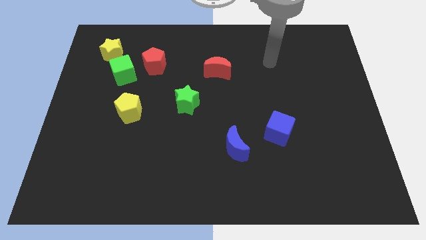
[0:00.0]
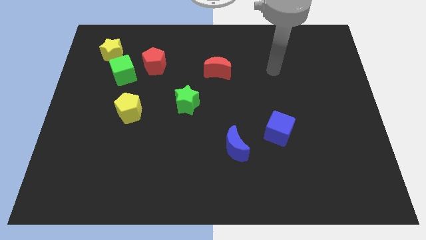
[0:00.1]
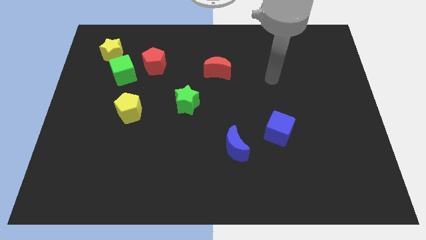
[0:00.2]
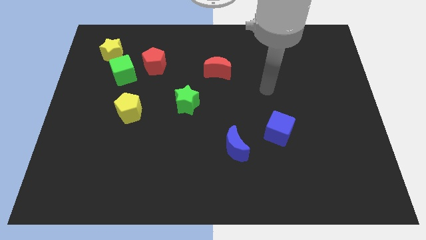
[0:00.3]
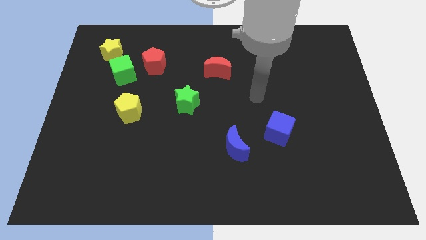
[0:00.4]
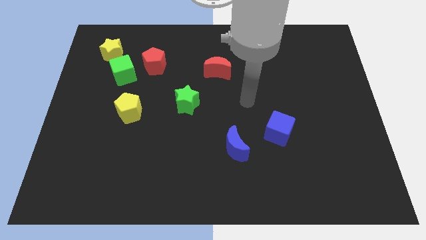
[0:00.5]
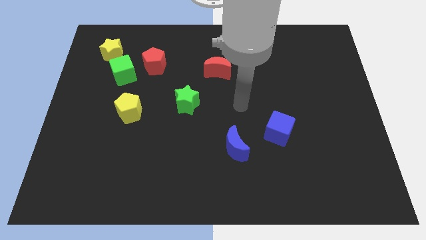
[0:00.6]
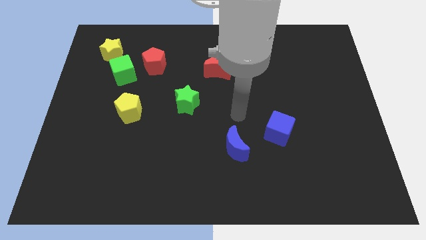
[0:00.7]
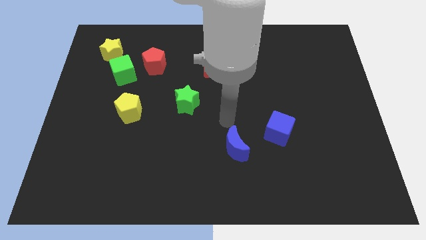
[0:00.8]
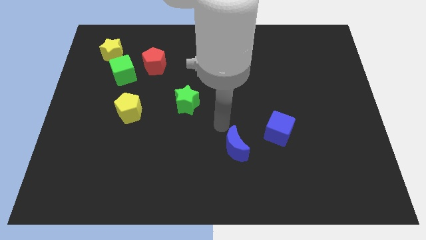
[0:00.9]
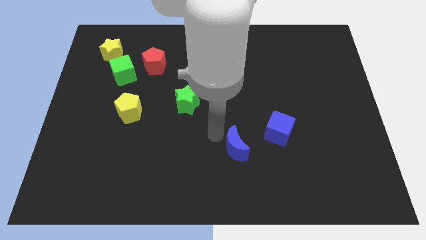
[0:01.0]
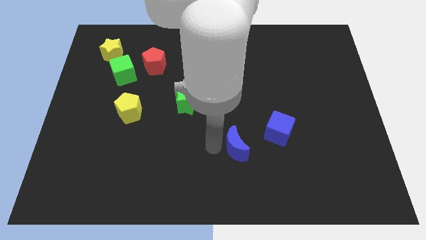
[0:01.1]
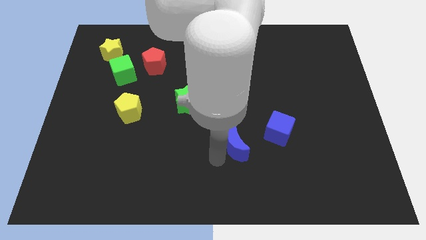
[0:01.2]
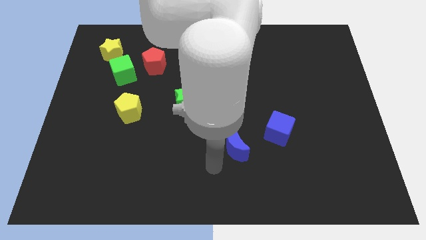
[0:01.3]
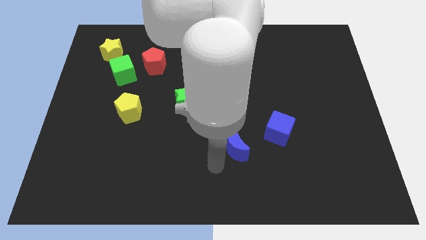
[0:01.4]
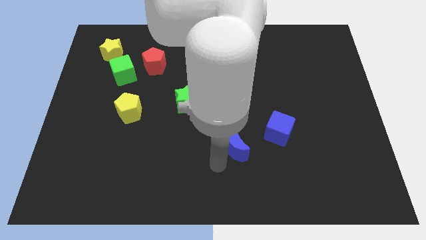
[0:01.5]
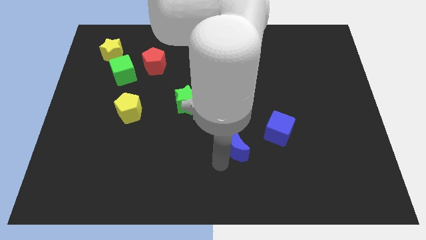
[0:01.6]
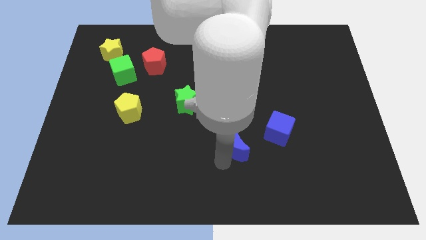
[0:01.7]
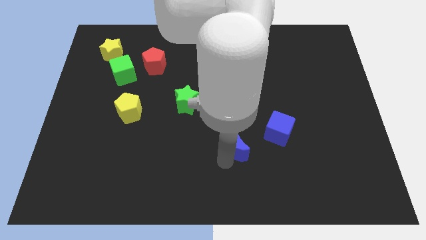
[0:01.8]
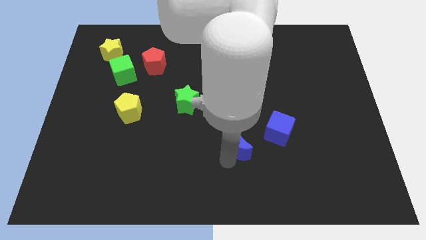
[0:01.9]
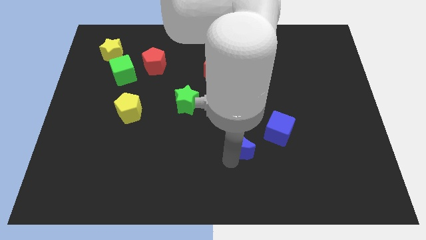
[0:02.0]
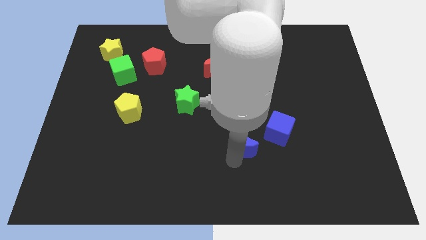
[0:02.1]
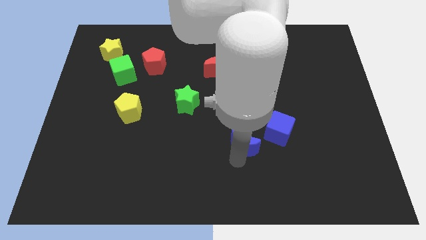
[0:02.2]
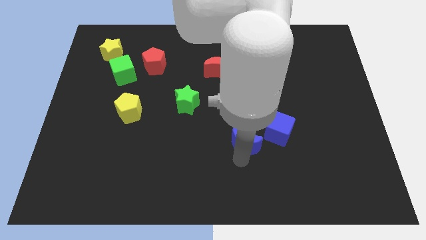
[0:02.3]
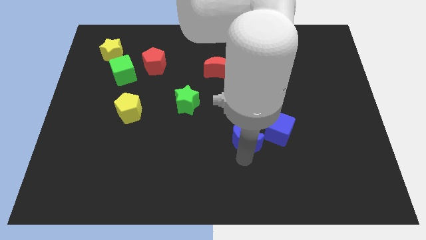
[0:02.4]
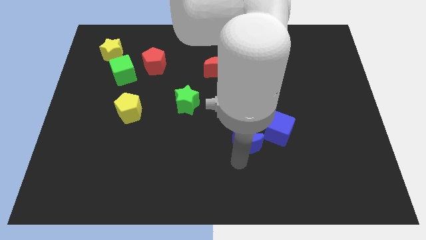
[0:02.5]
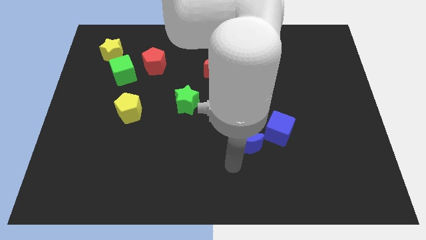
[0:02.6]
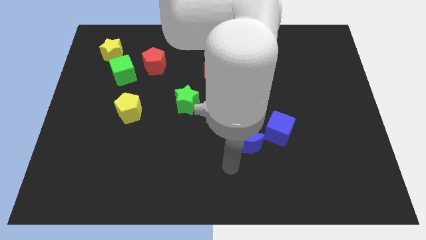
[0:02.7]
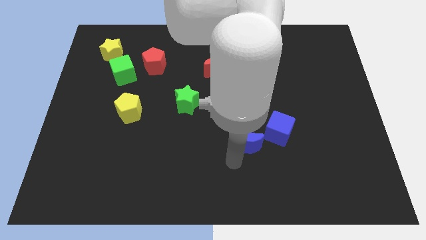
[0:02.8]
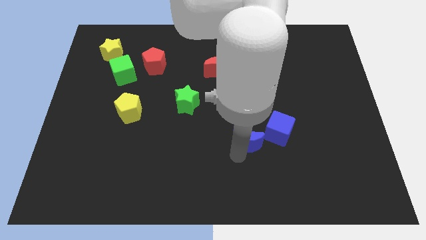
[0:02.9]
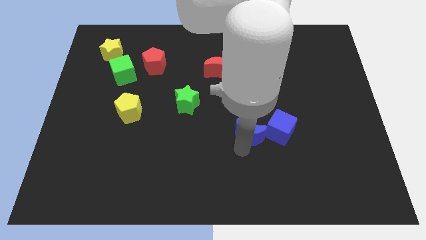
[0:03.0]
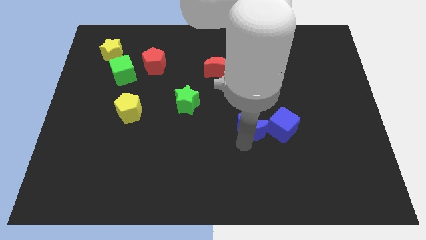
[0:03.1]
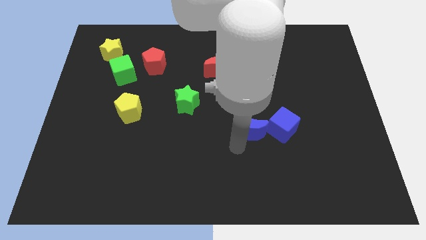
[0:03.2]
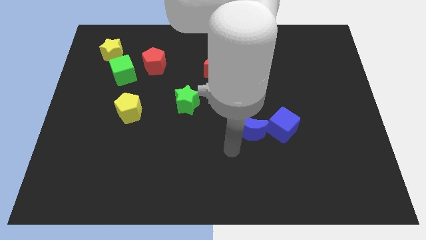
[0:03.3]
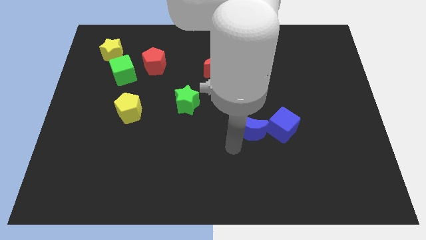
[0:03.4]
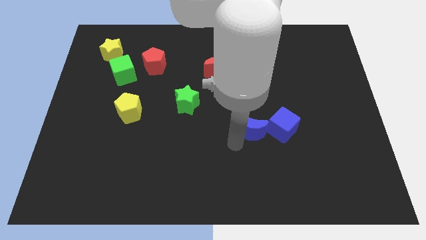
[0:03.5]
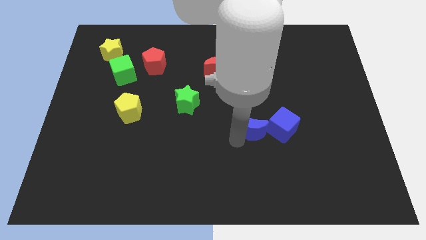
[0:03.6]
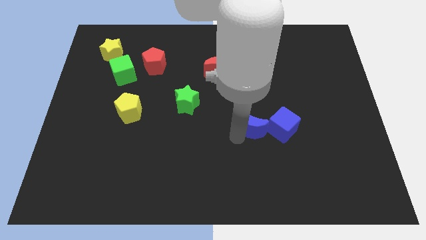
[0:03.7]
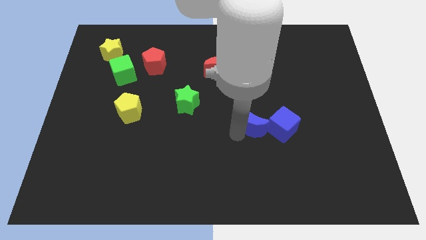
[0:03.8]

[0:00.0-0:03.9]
push the blue moon a bit up and to the right

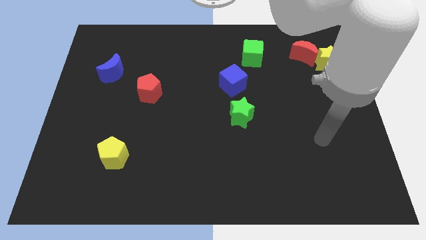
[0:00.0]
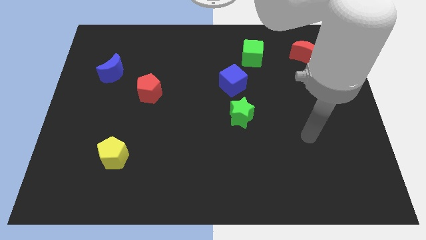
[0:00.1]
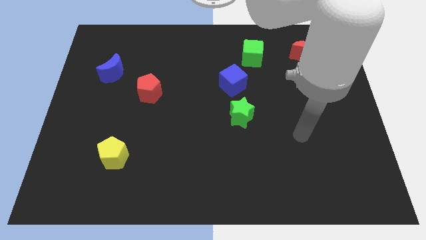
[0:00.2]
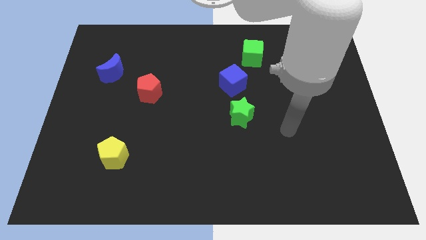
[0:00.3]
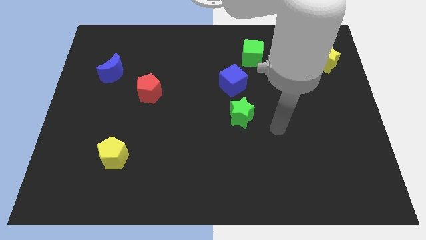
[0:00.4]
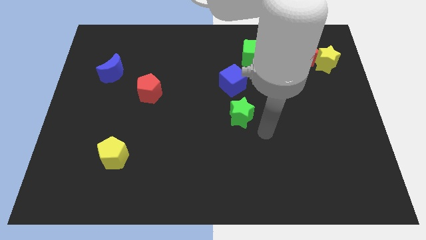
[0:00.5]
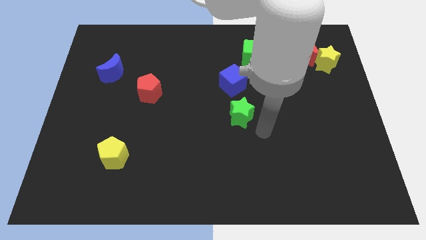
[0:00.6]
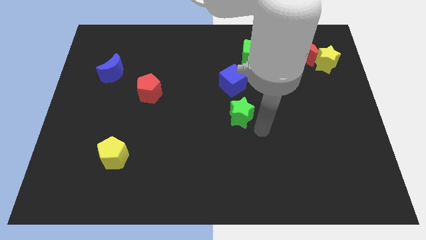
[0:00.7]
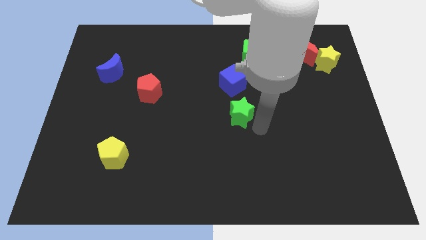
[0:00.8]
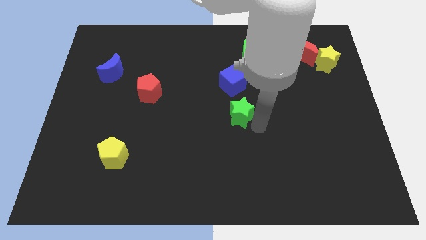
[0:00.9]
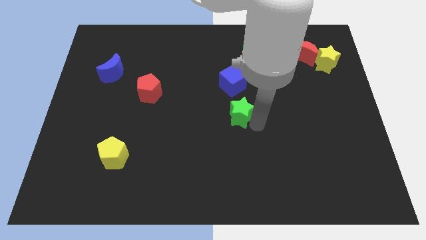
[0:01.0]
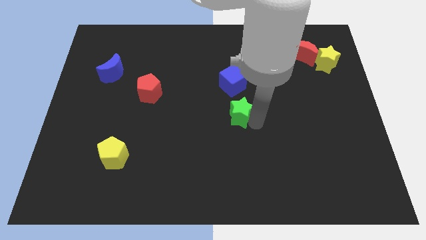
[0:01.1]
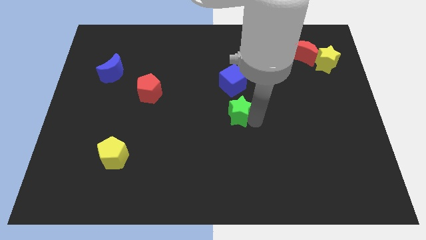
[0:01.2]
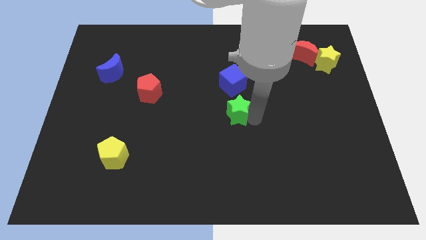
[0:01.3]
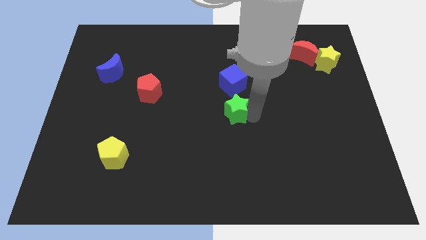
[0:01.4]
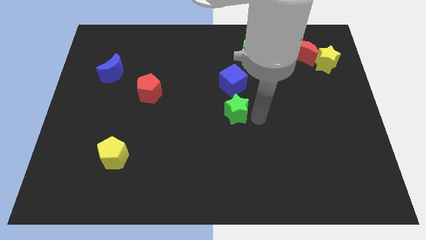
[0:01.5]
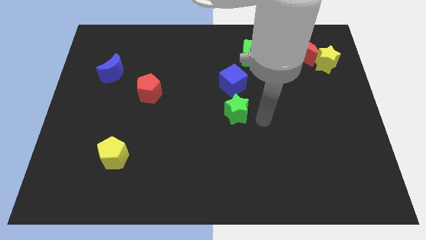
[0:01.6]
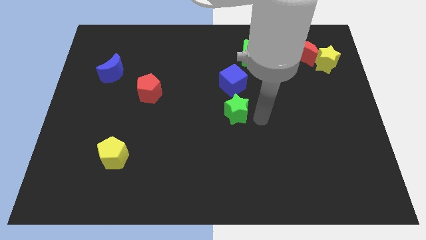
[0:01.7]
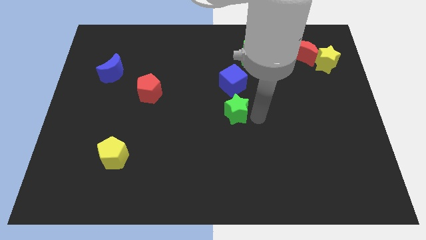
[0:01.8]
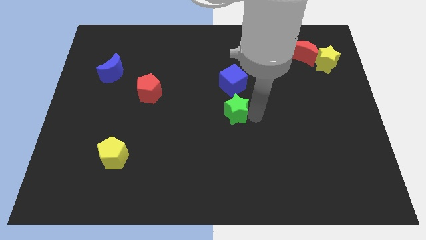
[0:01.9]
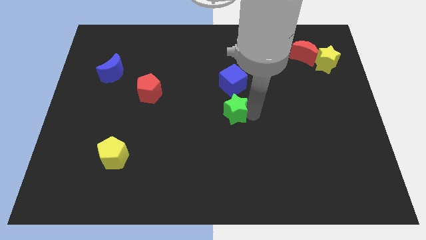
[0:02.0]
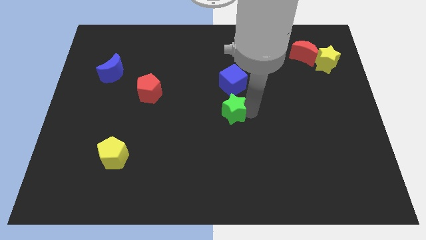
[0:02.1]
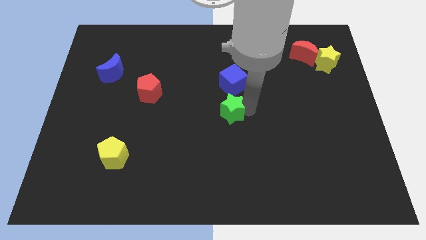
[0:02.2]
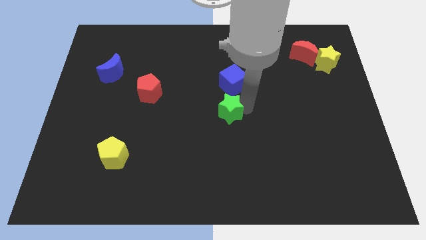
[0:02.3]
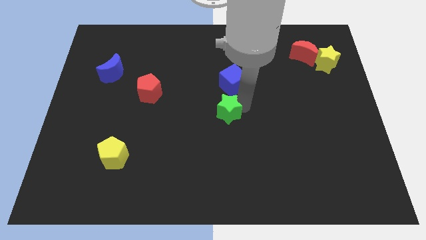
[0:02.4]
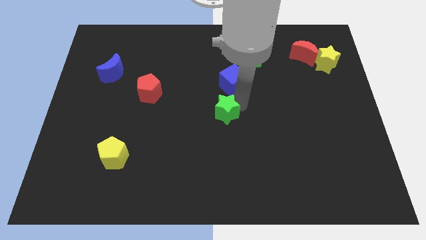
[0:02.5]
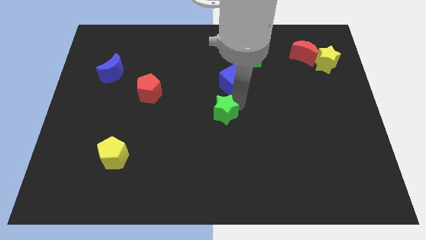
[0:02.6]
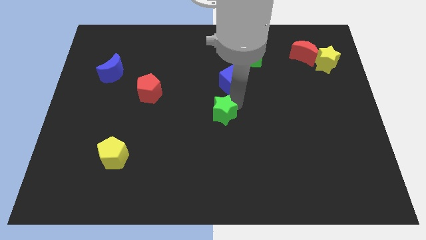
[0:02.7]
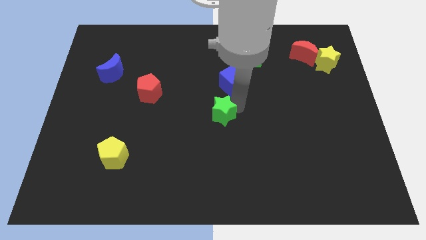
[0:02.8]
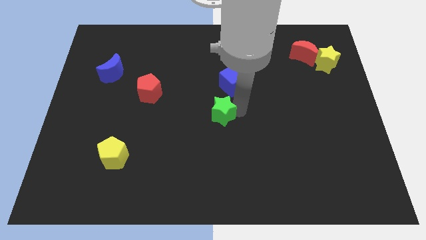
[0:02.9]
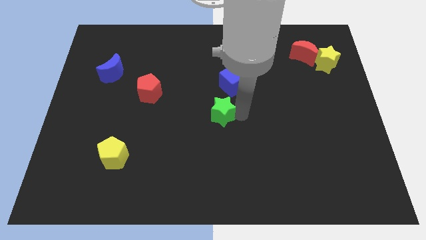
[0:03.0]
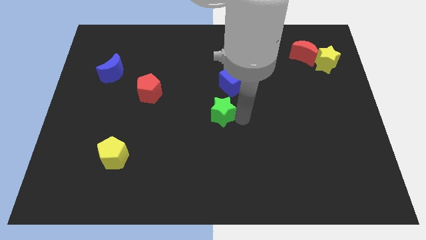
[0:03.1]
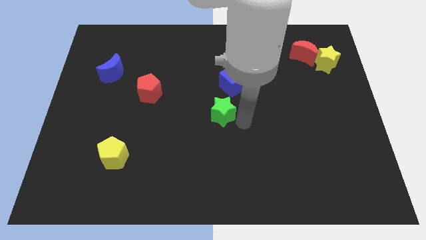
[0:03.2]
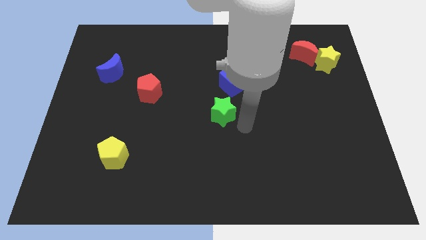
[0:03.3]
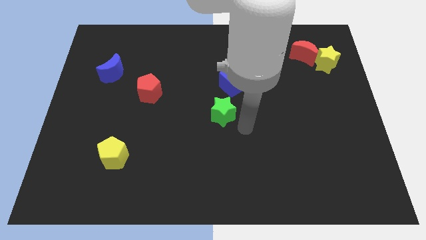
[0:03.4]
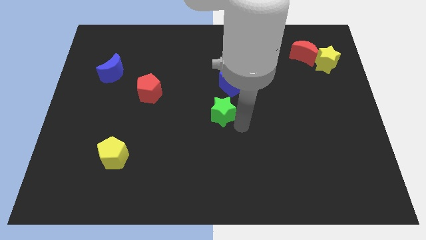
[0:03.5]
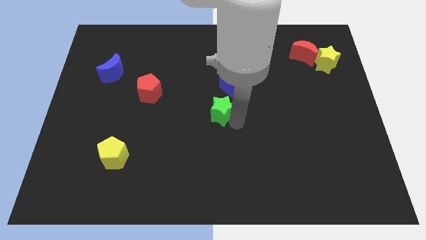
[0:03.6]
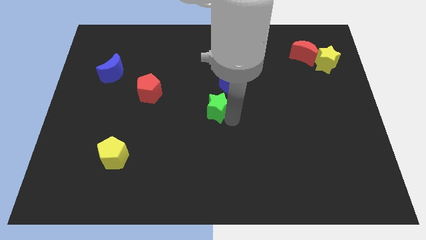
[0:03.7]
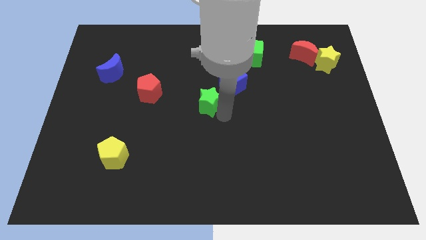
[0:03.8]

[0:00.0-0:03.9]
slightly slide the green star upwards and then to the left
